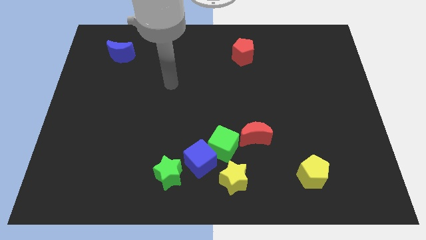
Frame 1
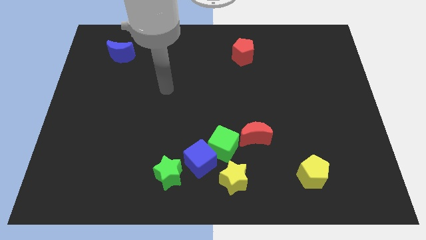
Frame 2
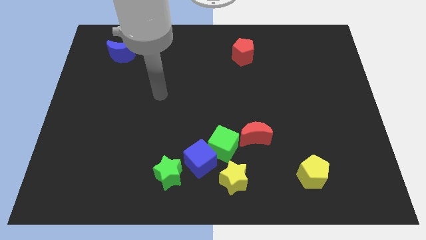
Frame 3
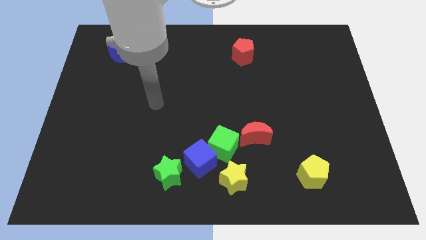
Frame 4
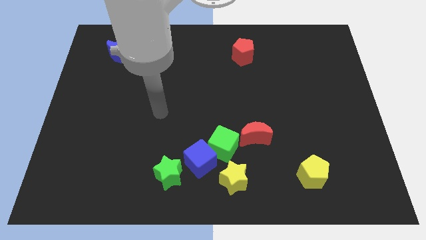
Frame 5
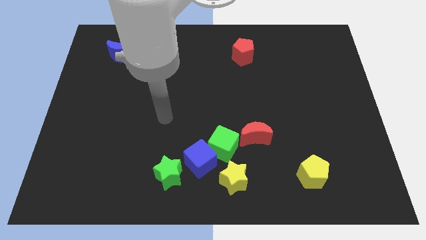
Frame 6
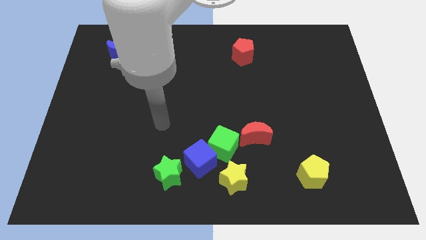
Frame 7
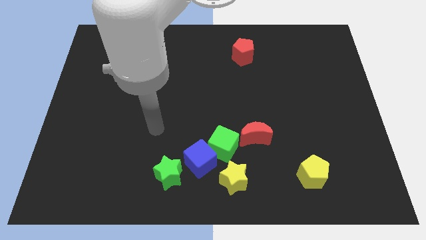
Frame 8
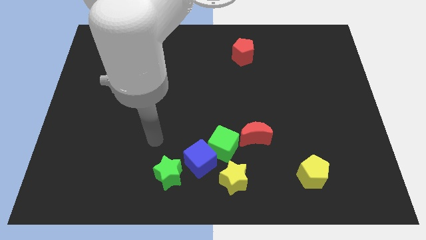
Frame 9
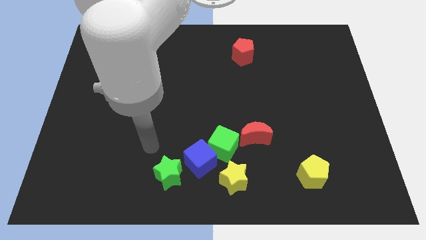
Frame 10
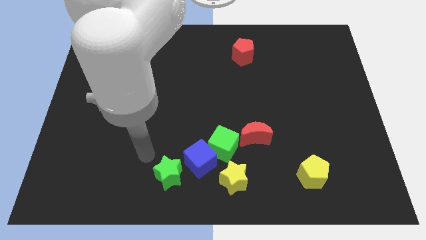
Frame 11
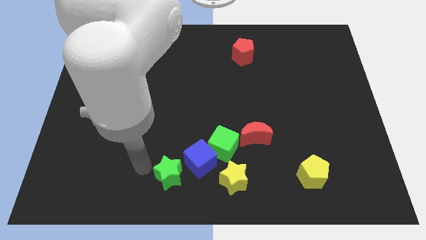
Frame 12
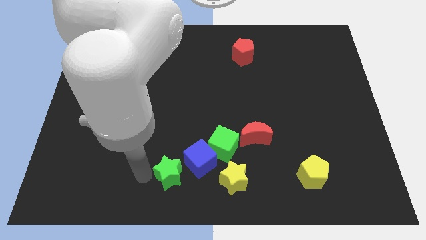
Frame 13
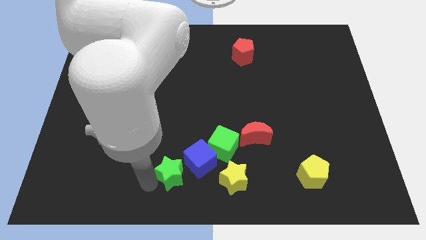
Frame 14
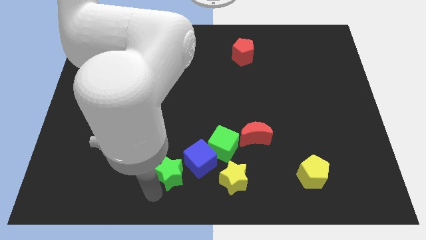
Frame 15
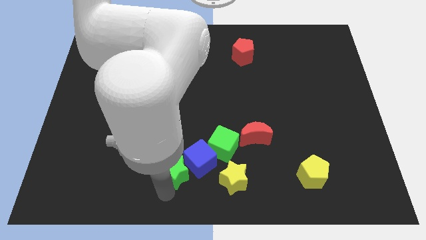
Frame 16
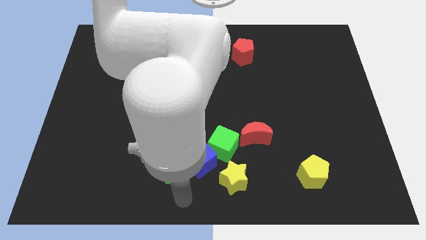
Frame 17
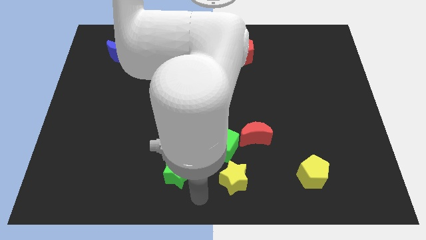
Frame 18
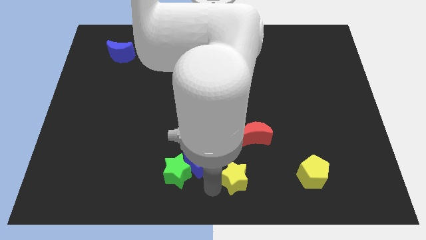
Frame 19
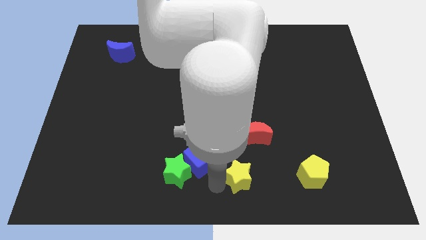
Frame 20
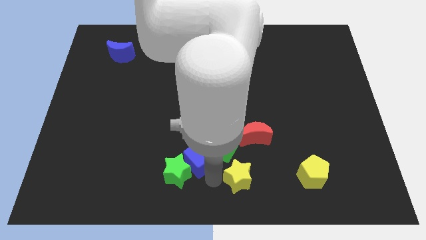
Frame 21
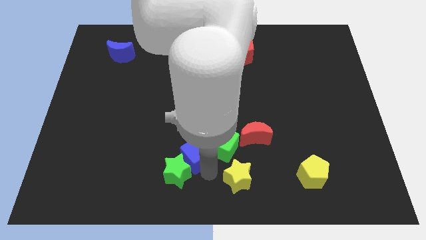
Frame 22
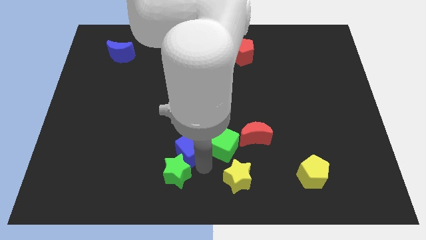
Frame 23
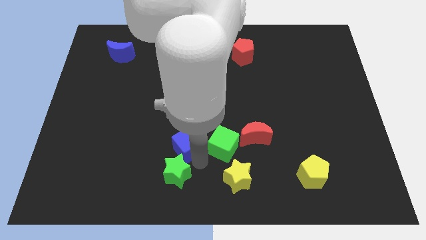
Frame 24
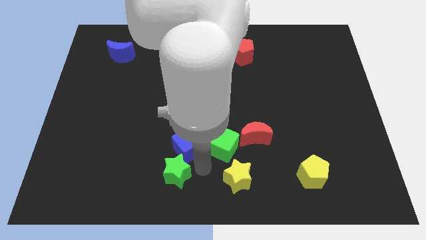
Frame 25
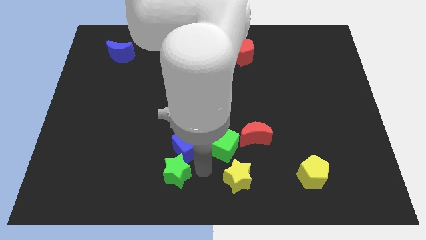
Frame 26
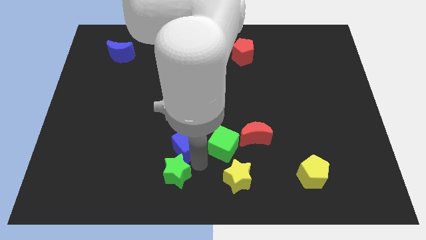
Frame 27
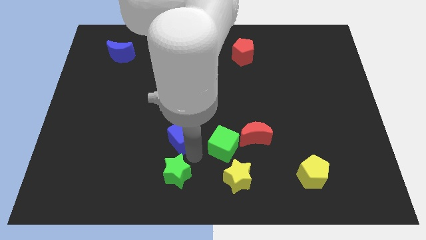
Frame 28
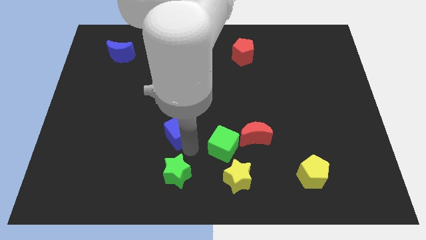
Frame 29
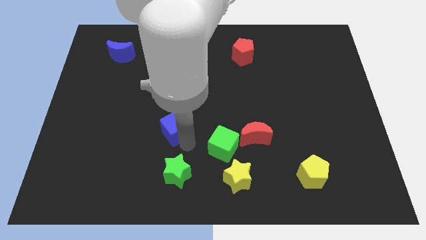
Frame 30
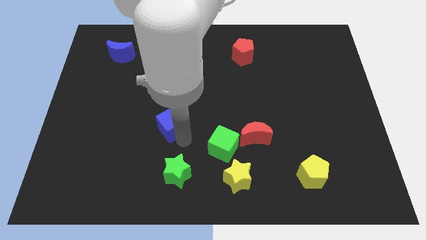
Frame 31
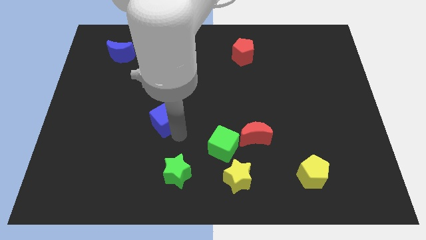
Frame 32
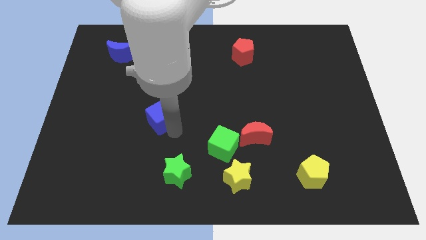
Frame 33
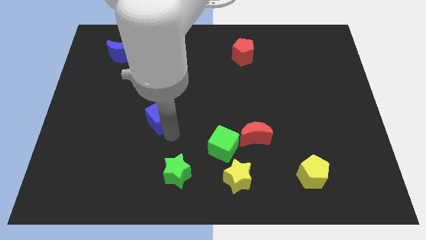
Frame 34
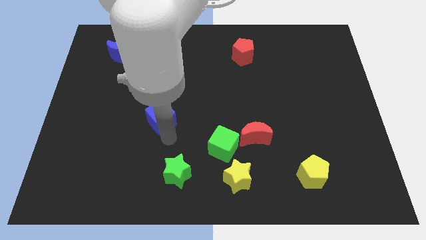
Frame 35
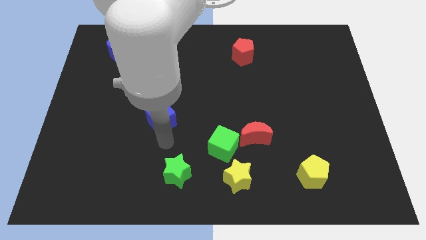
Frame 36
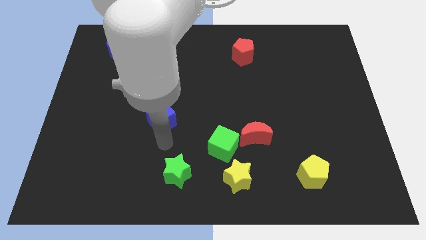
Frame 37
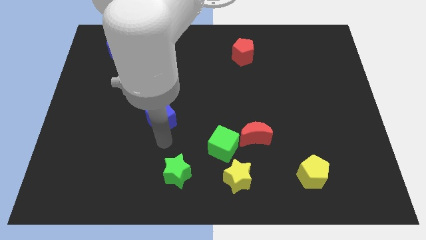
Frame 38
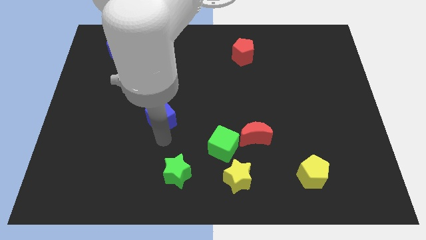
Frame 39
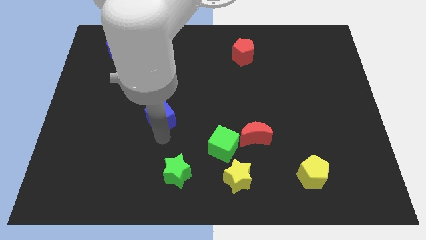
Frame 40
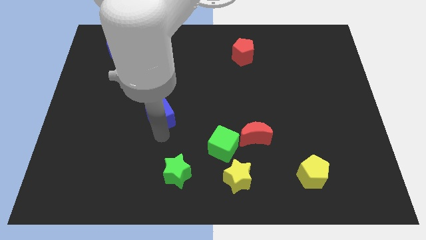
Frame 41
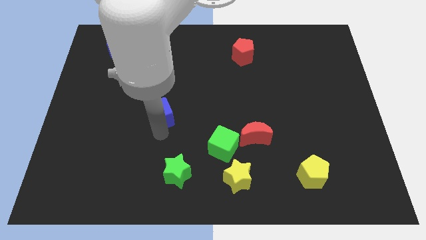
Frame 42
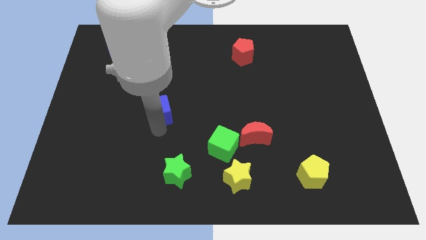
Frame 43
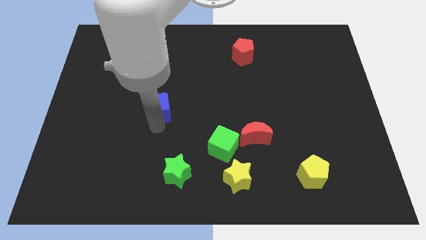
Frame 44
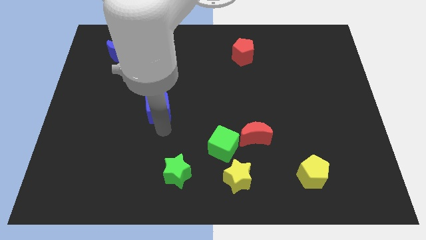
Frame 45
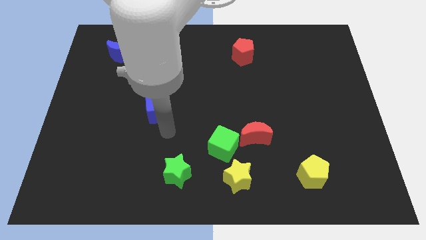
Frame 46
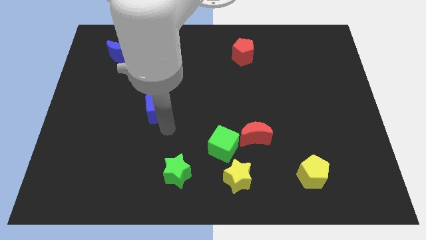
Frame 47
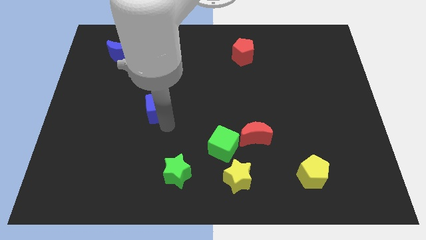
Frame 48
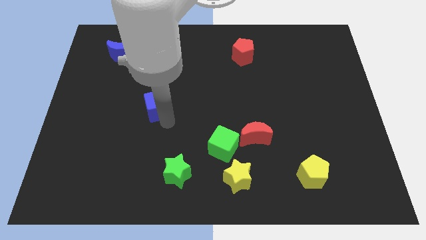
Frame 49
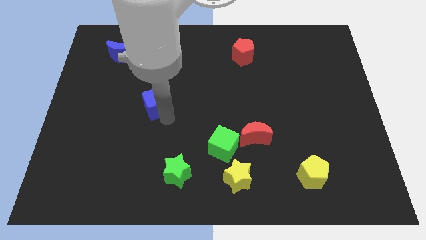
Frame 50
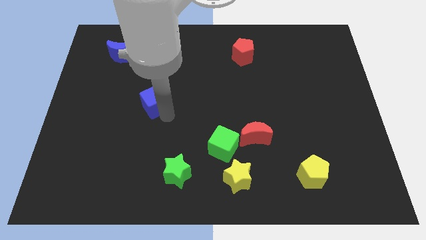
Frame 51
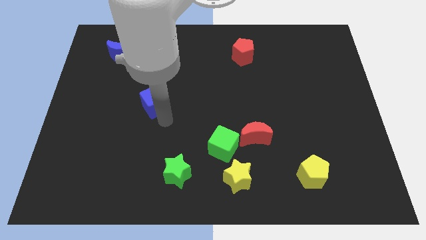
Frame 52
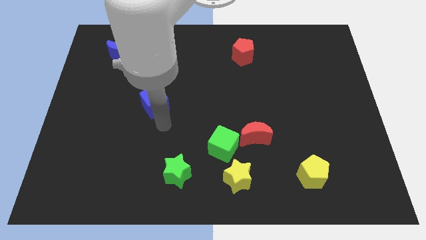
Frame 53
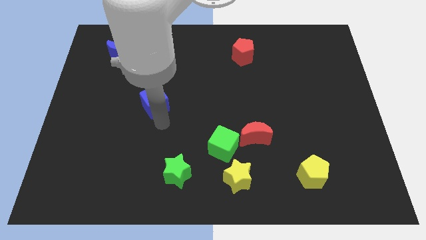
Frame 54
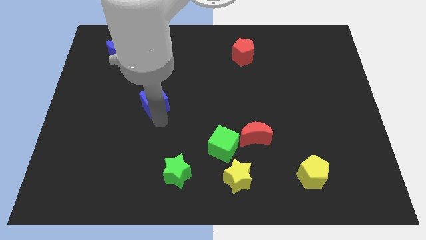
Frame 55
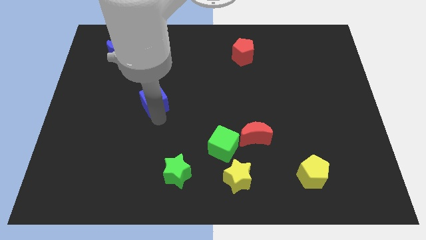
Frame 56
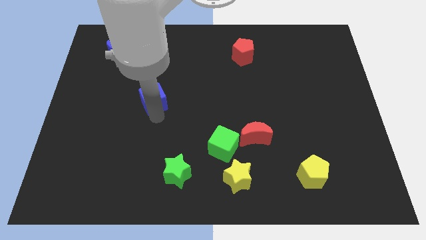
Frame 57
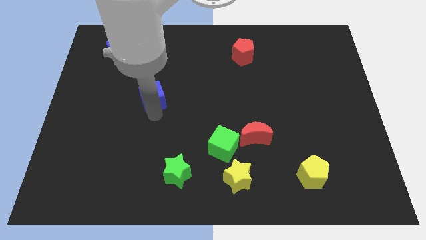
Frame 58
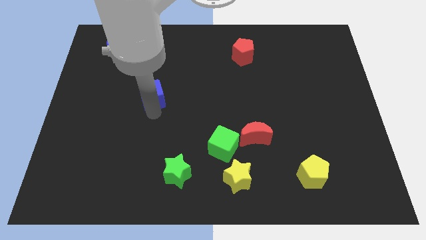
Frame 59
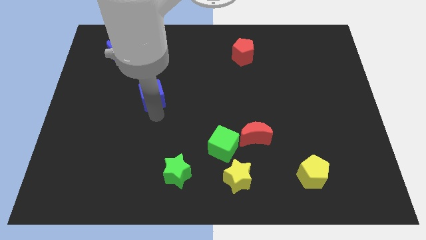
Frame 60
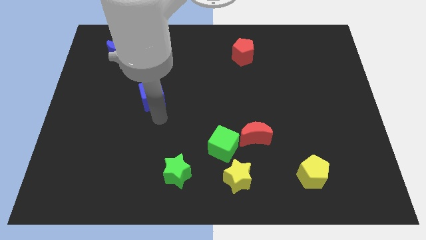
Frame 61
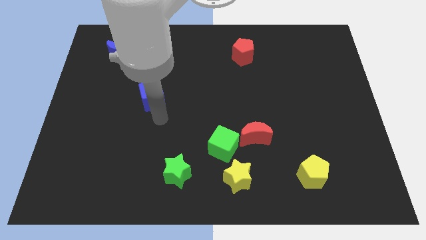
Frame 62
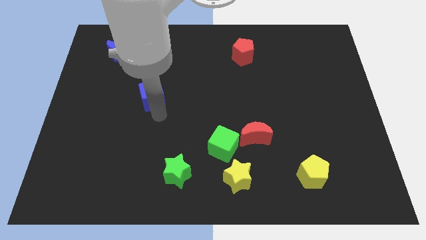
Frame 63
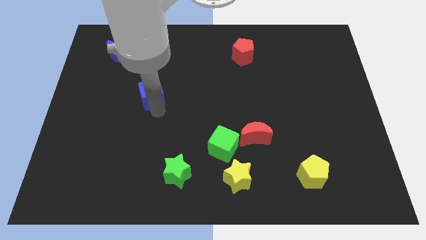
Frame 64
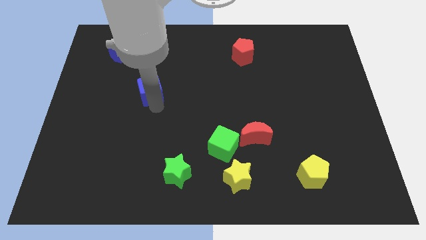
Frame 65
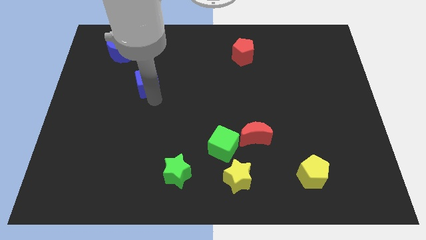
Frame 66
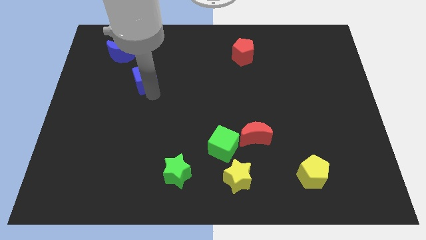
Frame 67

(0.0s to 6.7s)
push the blue cube diagonally down and to the right of the blue moon
